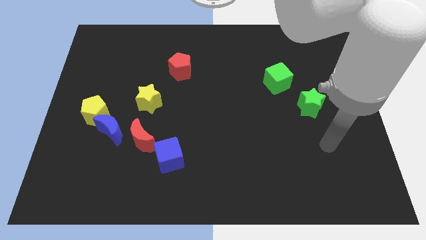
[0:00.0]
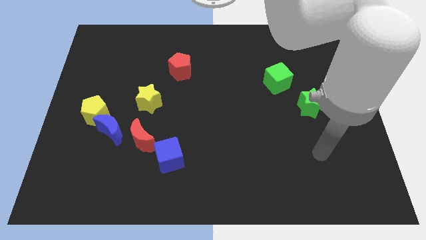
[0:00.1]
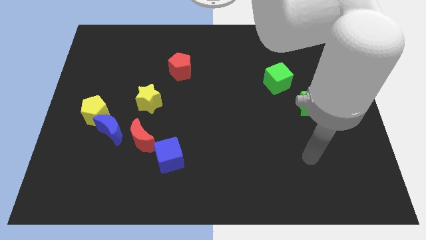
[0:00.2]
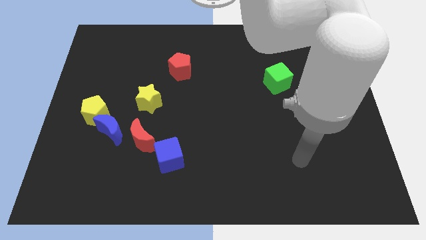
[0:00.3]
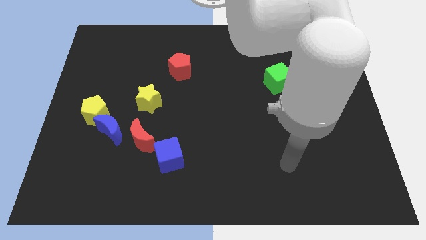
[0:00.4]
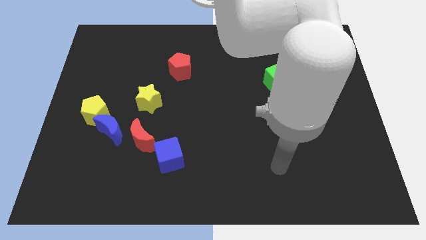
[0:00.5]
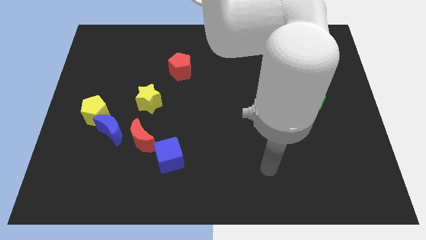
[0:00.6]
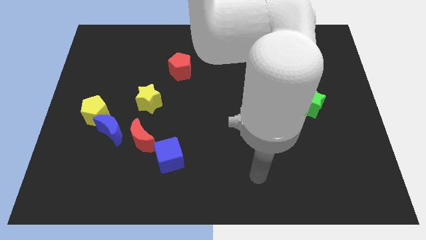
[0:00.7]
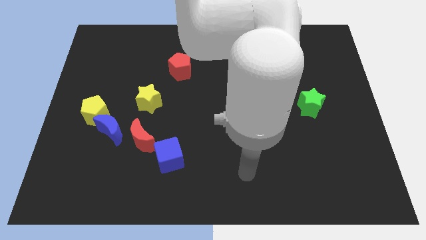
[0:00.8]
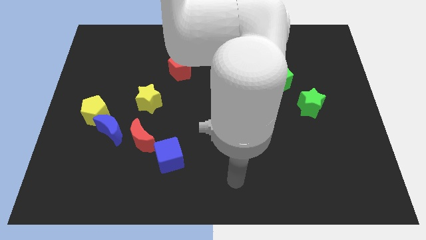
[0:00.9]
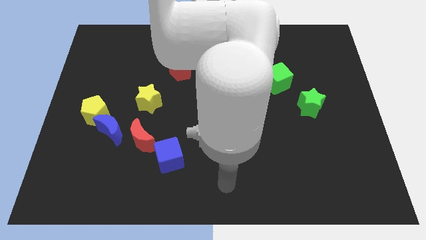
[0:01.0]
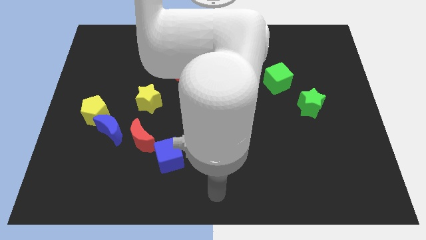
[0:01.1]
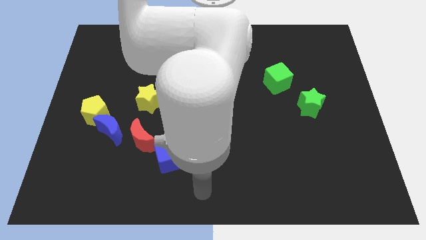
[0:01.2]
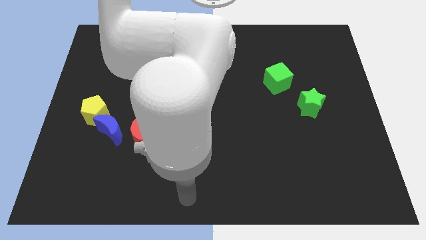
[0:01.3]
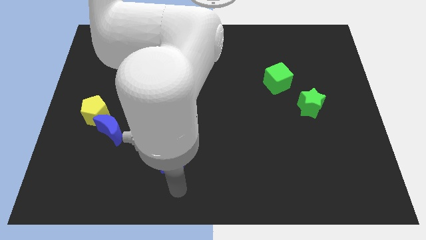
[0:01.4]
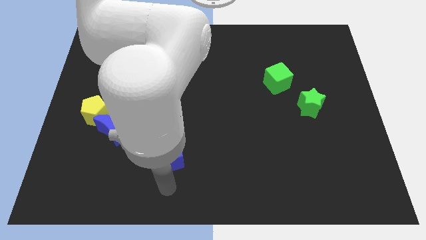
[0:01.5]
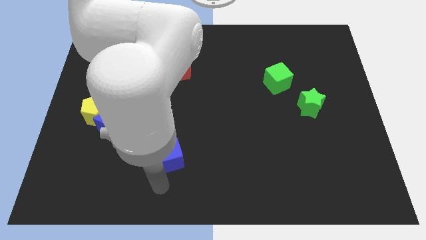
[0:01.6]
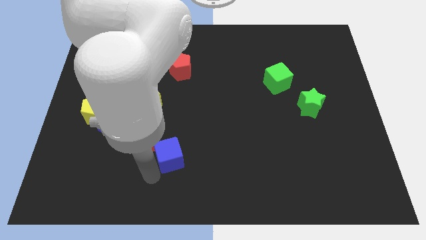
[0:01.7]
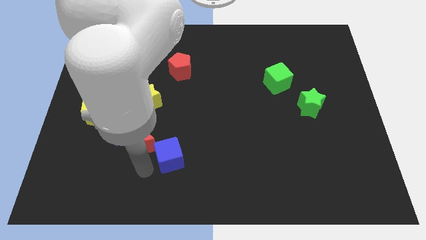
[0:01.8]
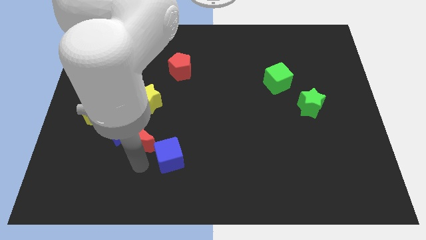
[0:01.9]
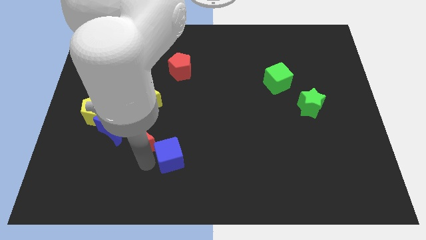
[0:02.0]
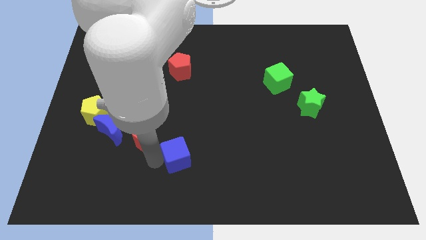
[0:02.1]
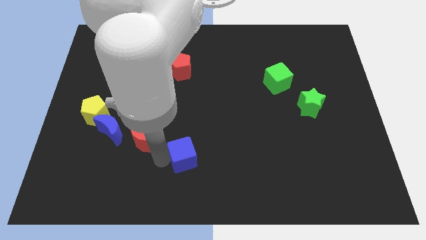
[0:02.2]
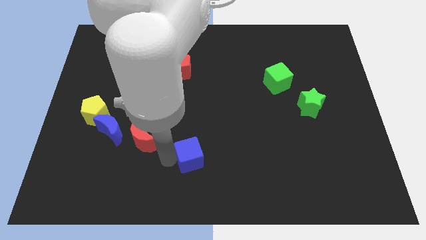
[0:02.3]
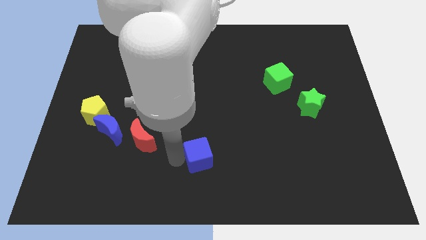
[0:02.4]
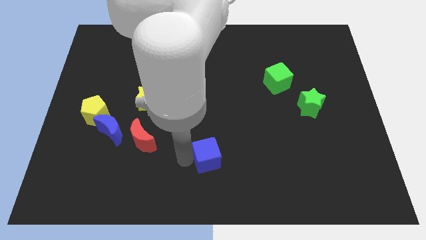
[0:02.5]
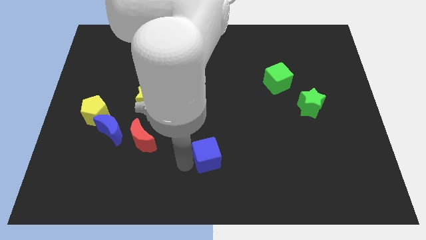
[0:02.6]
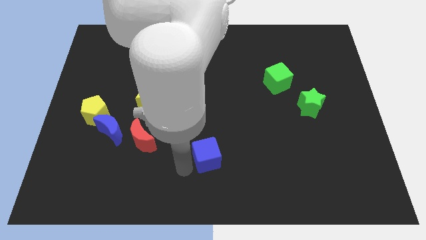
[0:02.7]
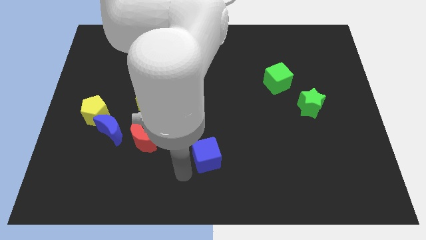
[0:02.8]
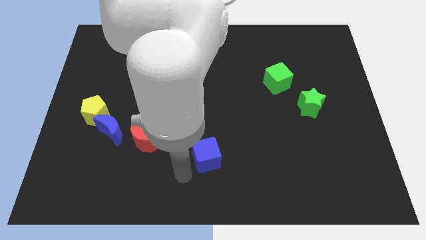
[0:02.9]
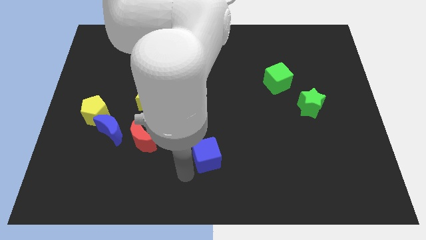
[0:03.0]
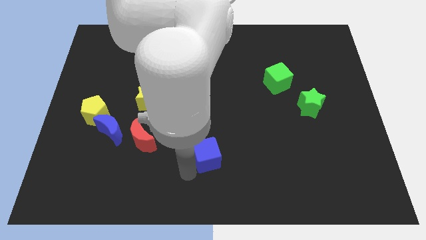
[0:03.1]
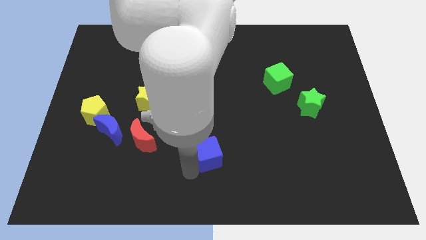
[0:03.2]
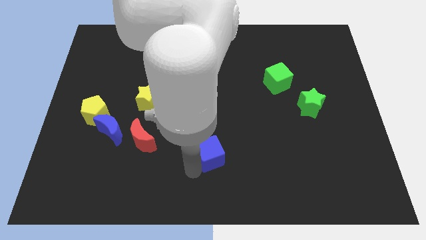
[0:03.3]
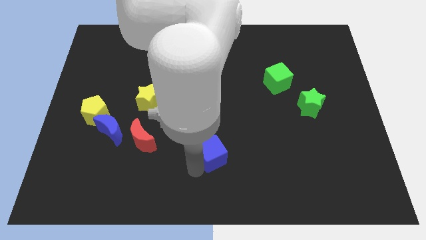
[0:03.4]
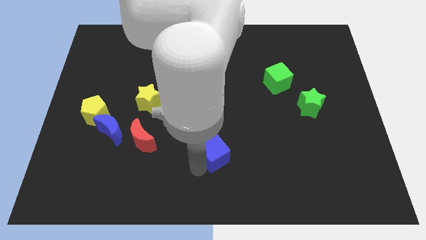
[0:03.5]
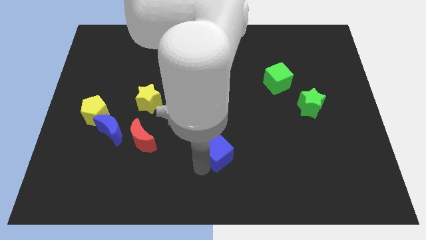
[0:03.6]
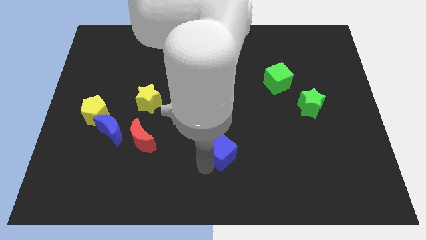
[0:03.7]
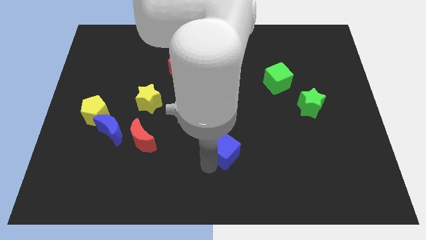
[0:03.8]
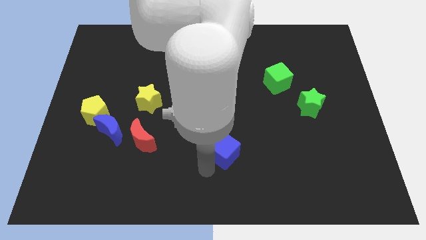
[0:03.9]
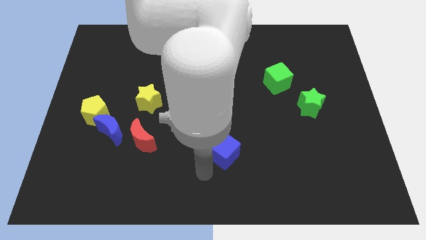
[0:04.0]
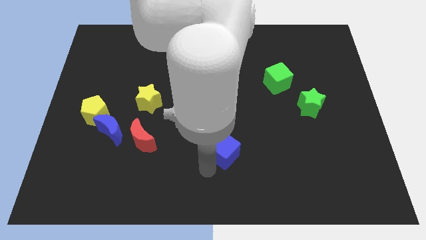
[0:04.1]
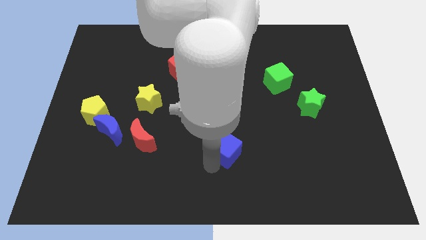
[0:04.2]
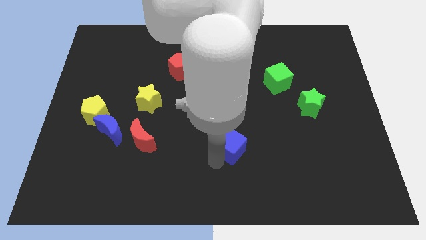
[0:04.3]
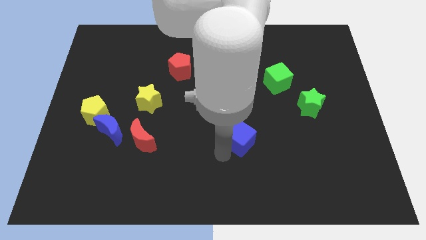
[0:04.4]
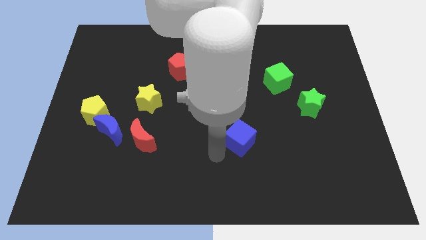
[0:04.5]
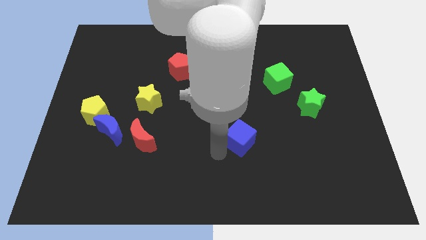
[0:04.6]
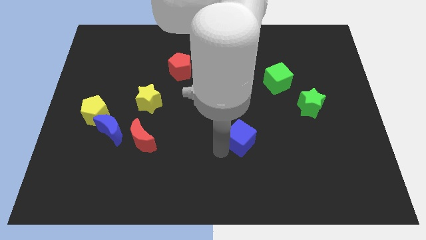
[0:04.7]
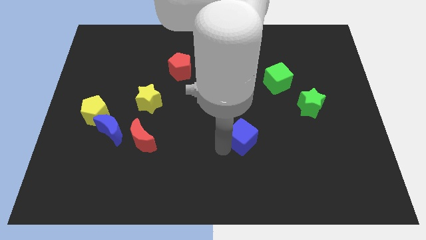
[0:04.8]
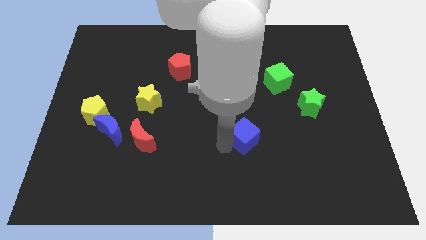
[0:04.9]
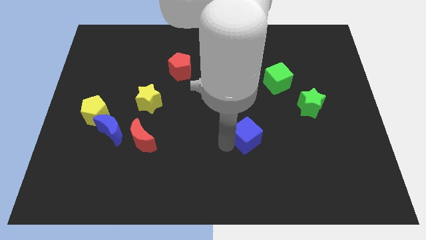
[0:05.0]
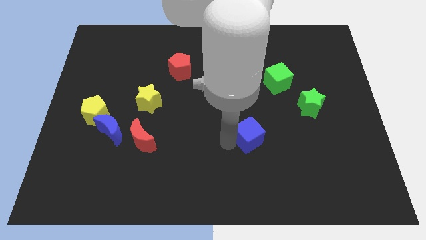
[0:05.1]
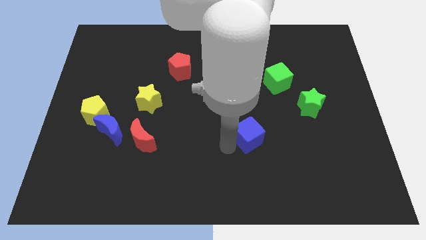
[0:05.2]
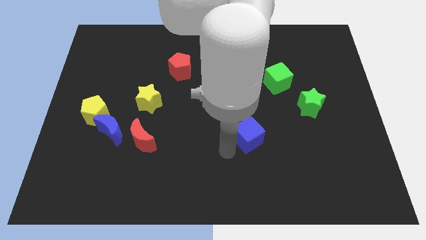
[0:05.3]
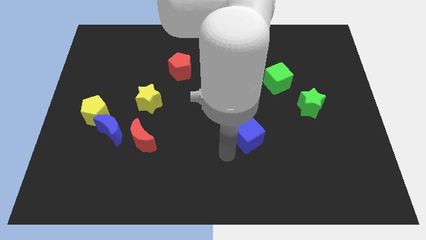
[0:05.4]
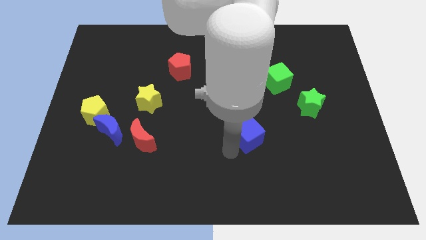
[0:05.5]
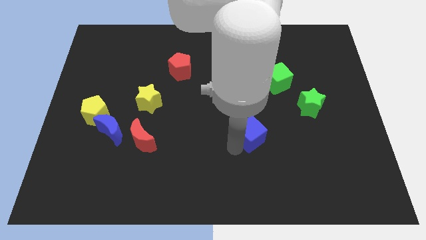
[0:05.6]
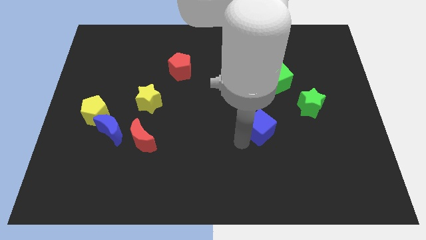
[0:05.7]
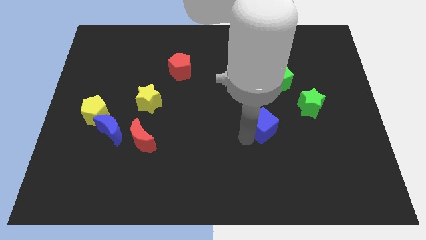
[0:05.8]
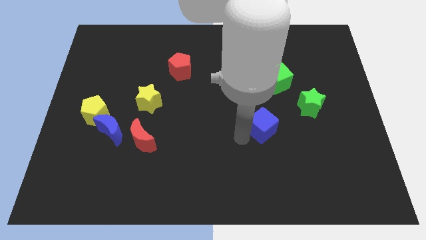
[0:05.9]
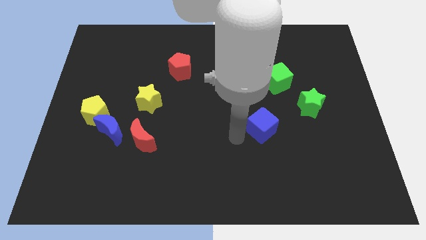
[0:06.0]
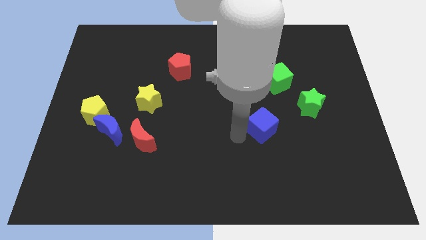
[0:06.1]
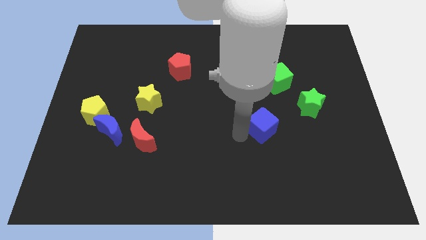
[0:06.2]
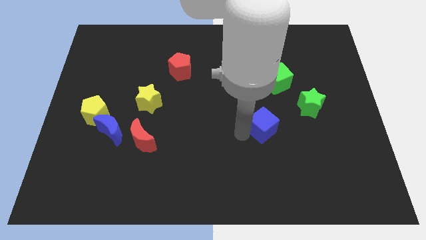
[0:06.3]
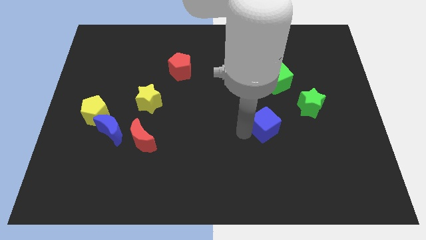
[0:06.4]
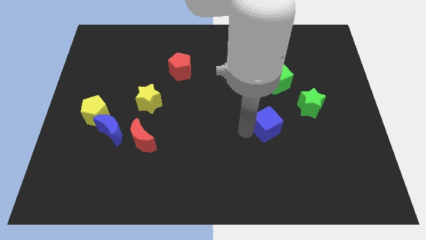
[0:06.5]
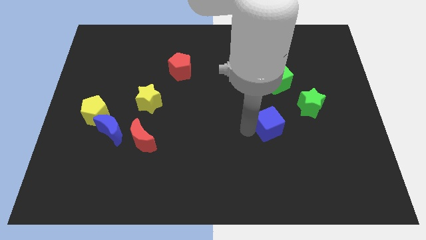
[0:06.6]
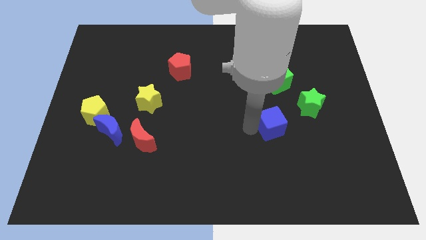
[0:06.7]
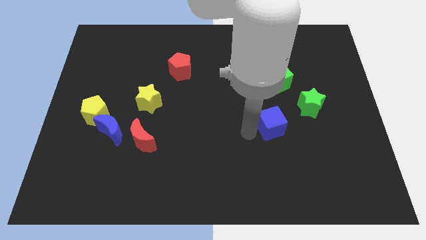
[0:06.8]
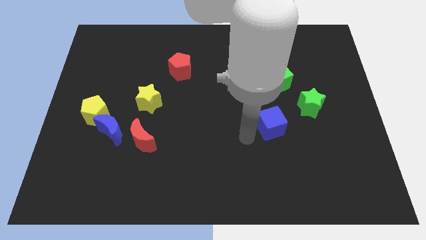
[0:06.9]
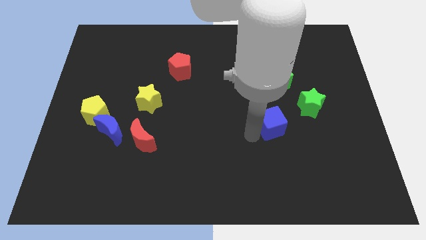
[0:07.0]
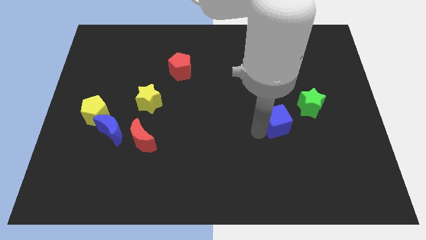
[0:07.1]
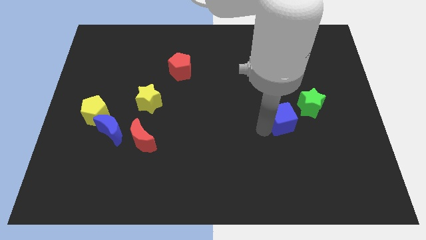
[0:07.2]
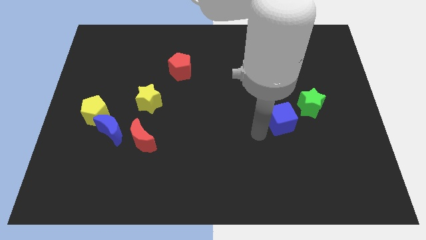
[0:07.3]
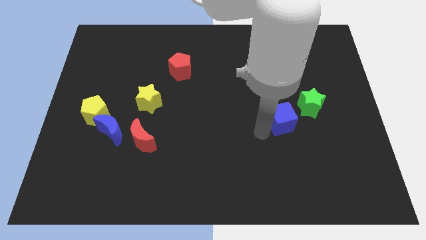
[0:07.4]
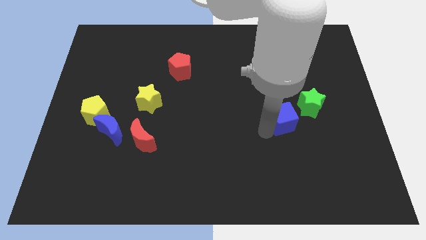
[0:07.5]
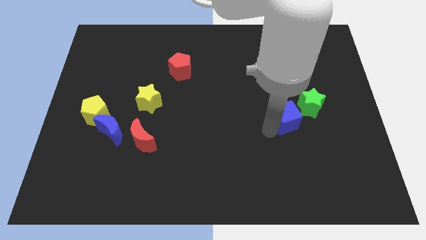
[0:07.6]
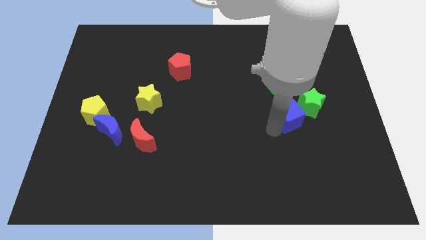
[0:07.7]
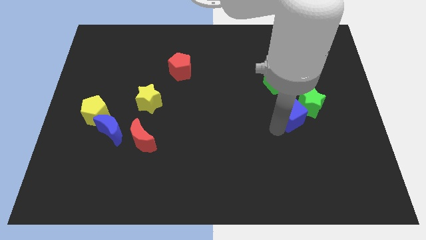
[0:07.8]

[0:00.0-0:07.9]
put the blue cube close to the green star
